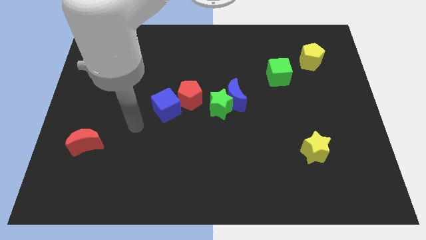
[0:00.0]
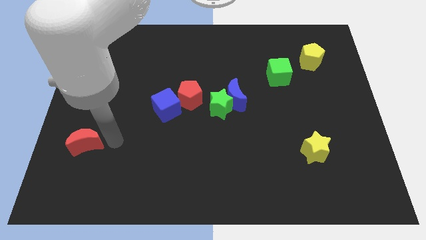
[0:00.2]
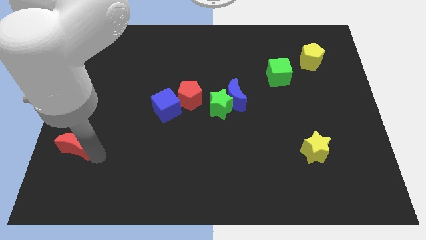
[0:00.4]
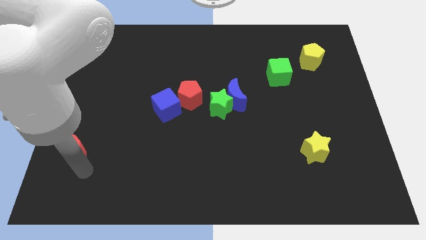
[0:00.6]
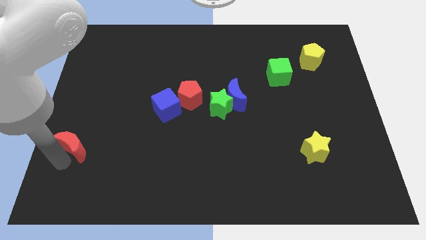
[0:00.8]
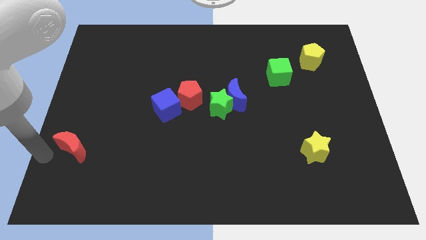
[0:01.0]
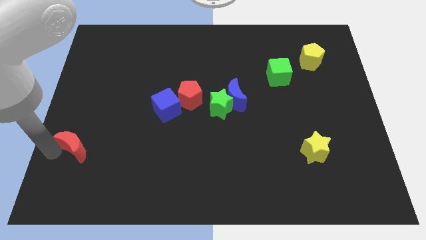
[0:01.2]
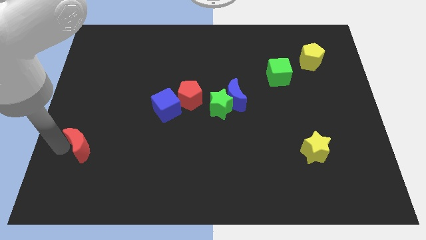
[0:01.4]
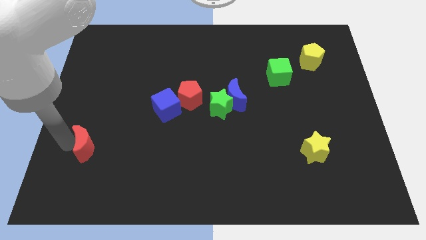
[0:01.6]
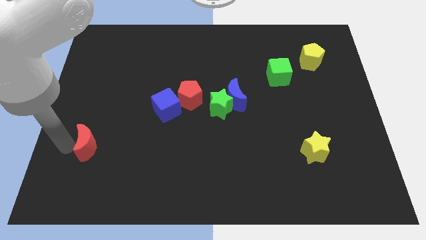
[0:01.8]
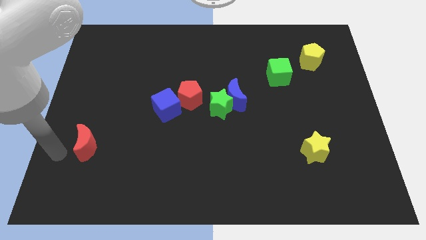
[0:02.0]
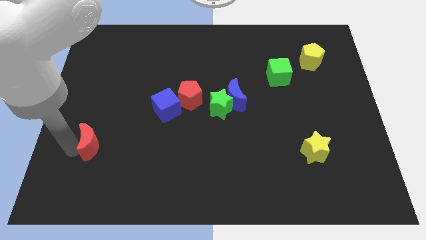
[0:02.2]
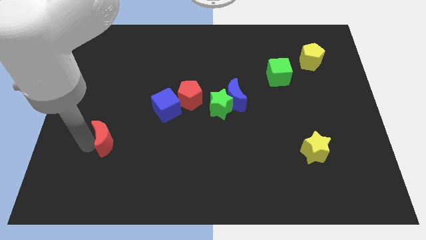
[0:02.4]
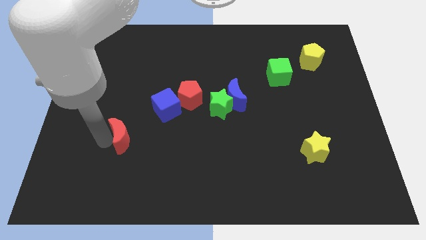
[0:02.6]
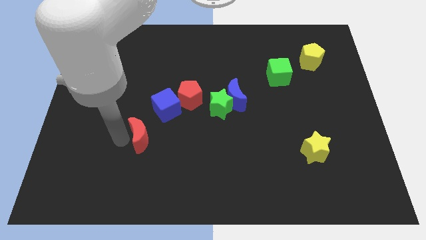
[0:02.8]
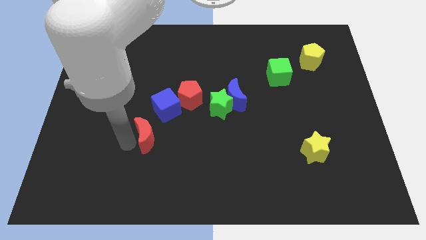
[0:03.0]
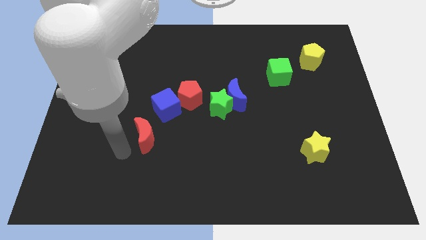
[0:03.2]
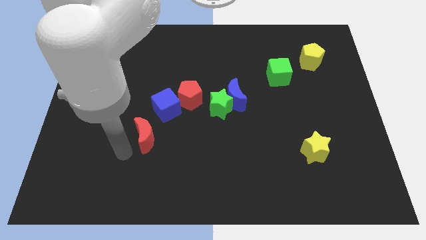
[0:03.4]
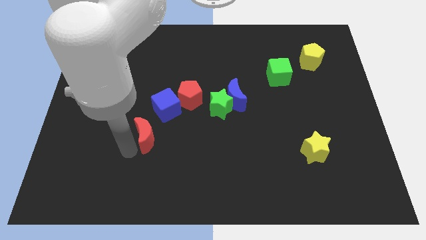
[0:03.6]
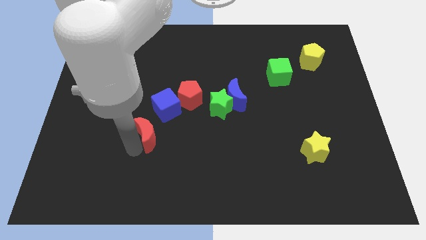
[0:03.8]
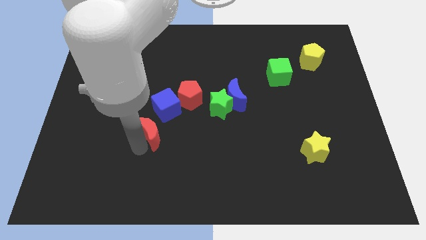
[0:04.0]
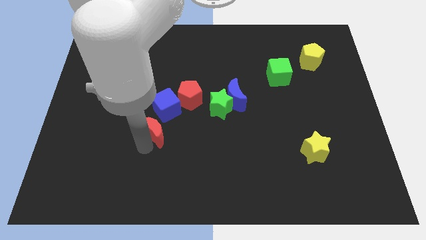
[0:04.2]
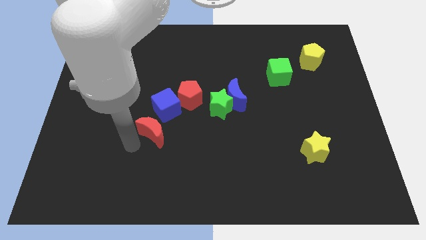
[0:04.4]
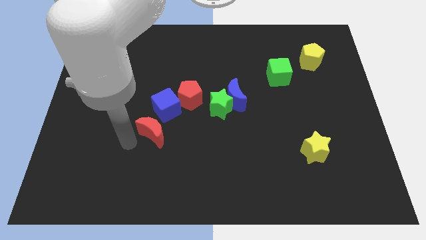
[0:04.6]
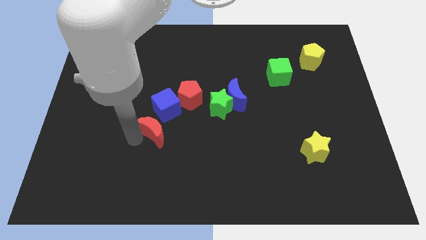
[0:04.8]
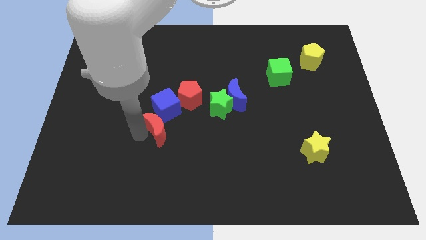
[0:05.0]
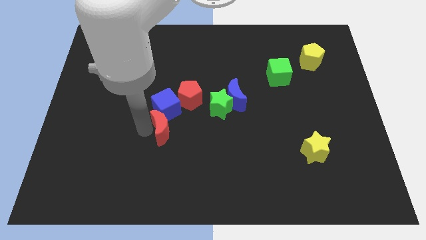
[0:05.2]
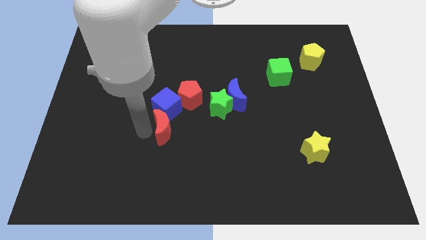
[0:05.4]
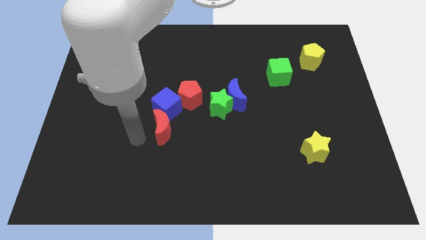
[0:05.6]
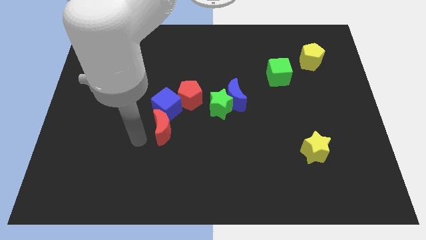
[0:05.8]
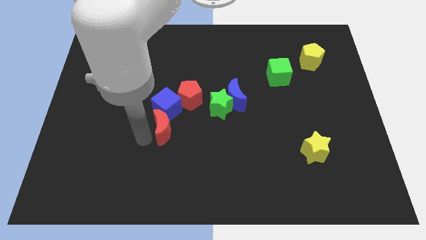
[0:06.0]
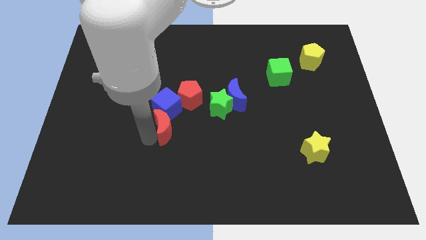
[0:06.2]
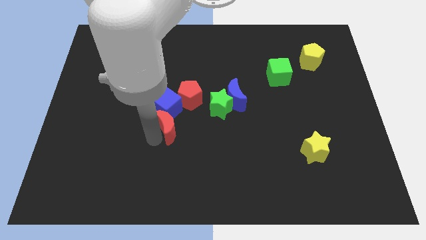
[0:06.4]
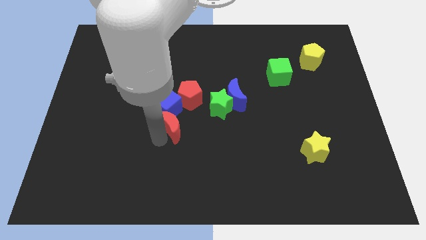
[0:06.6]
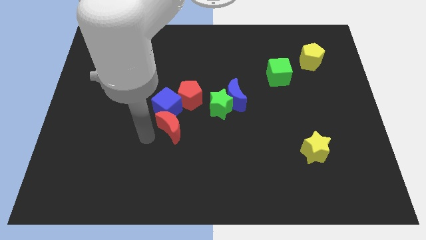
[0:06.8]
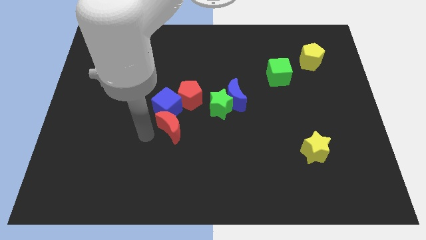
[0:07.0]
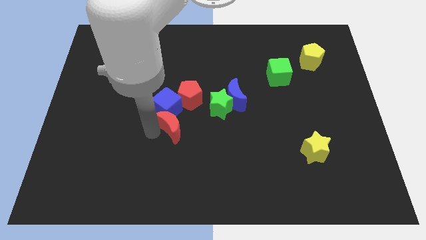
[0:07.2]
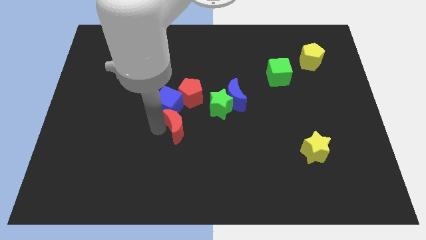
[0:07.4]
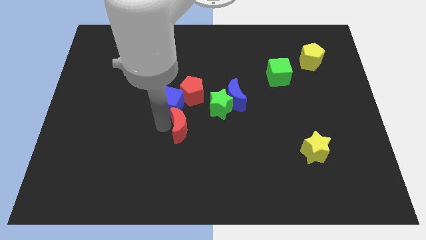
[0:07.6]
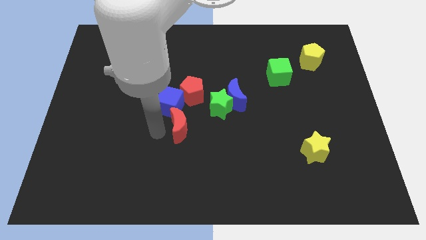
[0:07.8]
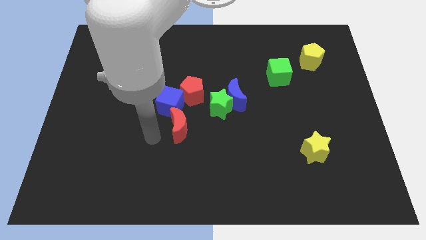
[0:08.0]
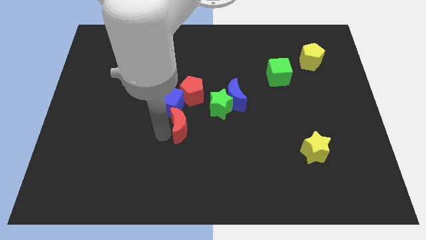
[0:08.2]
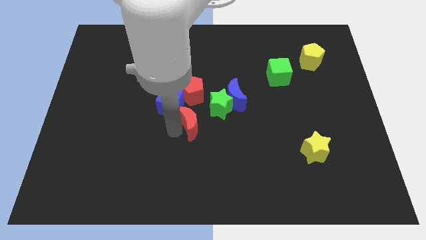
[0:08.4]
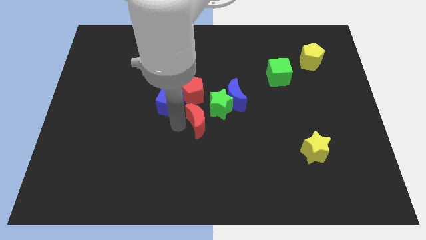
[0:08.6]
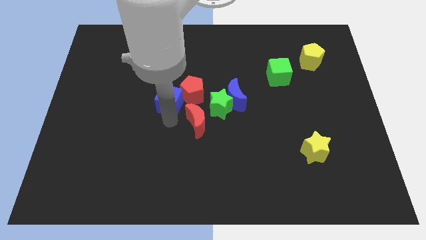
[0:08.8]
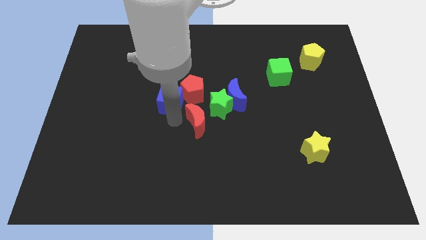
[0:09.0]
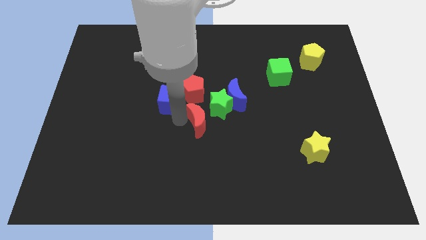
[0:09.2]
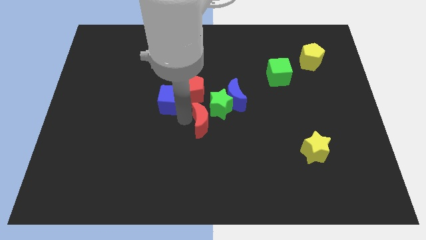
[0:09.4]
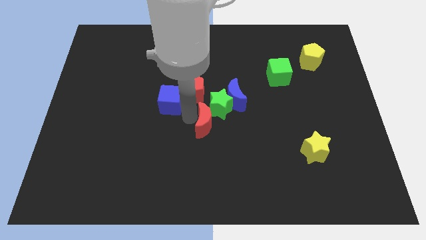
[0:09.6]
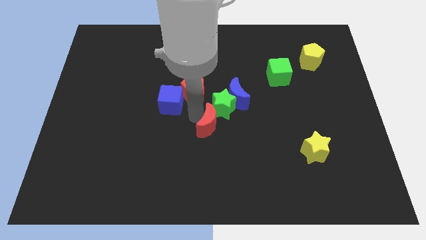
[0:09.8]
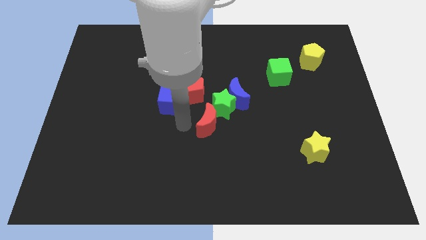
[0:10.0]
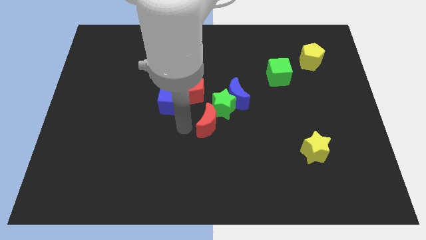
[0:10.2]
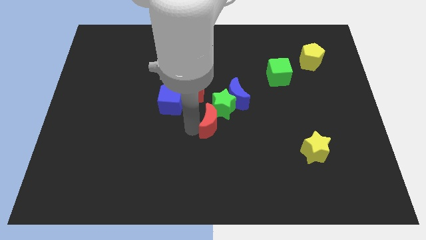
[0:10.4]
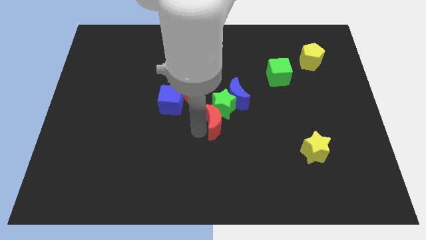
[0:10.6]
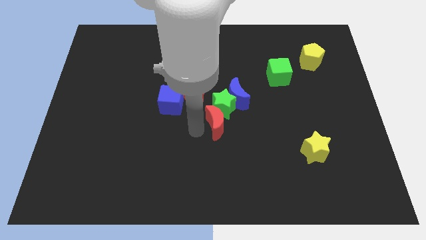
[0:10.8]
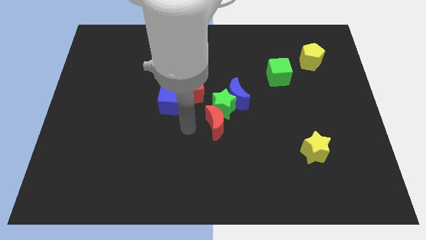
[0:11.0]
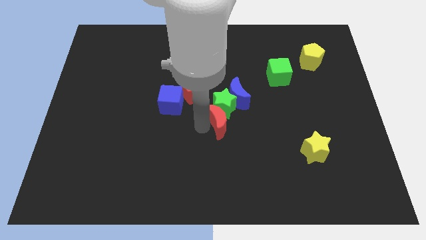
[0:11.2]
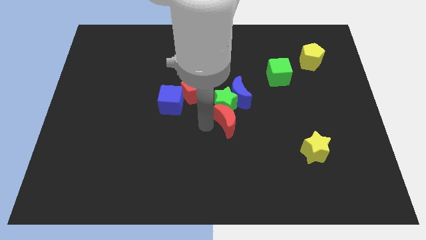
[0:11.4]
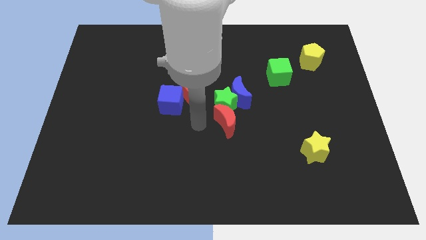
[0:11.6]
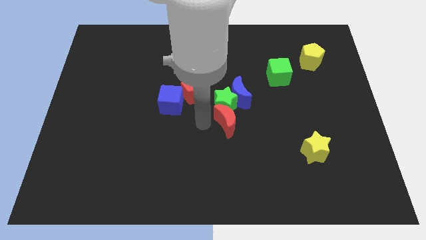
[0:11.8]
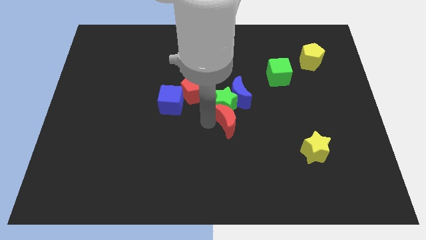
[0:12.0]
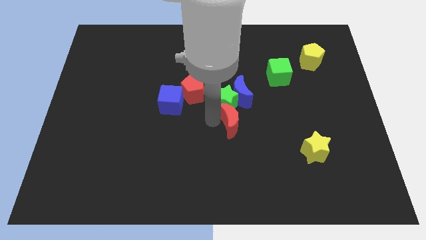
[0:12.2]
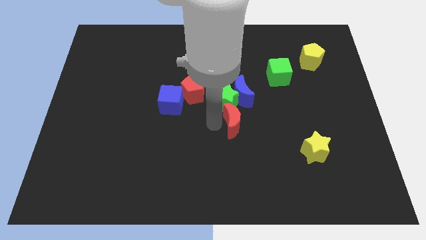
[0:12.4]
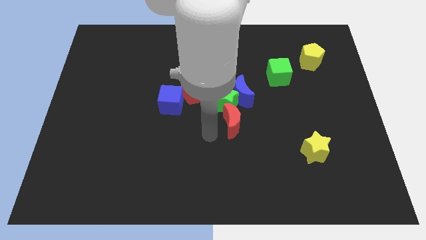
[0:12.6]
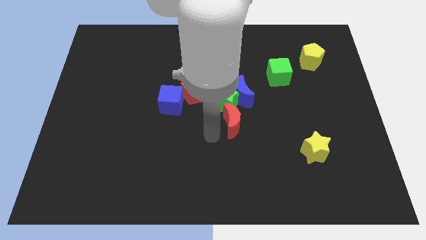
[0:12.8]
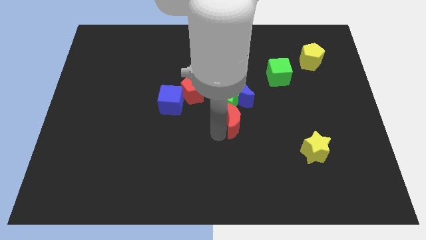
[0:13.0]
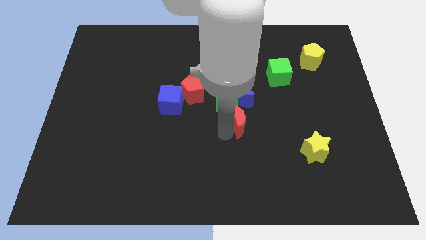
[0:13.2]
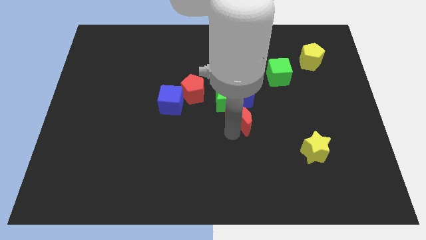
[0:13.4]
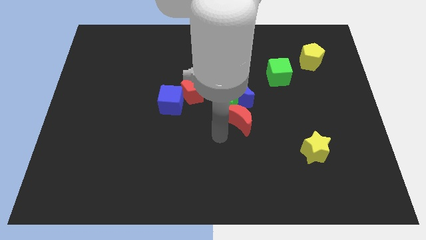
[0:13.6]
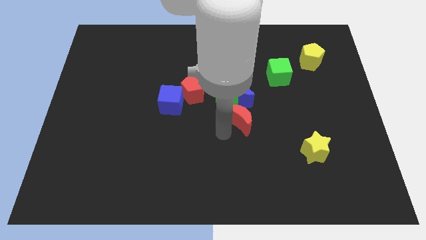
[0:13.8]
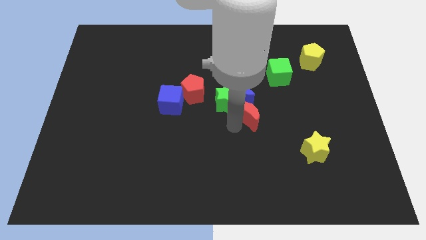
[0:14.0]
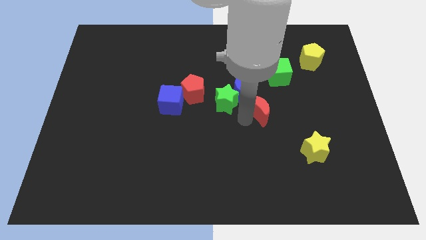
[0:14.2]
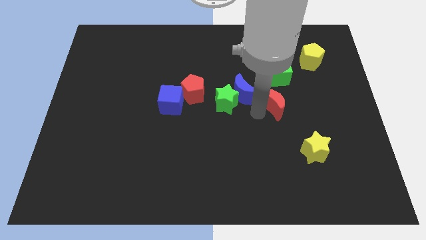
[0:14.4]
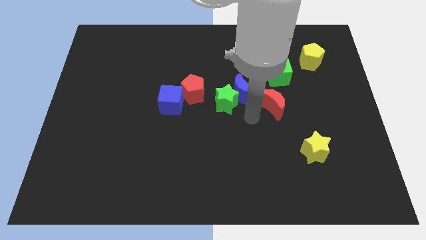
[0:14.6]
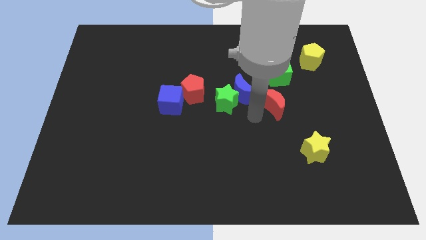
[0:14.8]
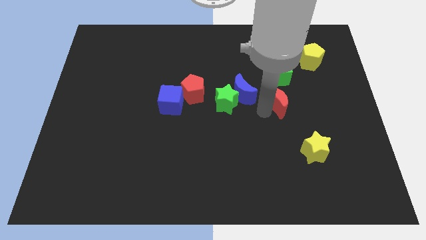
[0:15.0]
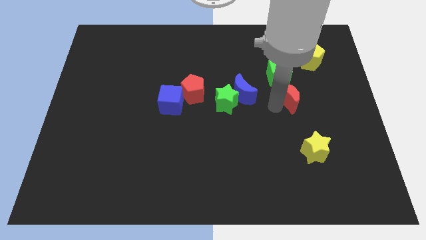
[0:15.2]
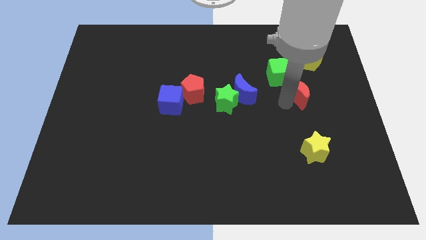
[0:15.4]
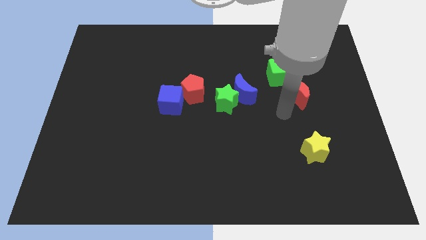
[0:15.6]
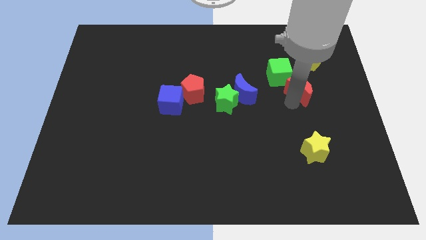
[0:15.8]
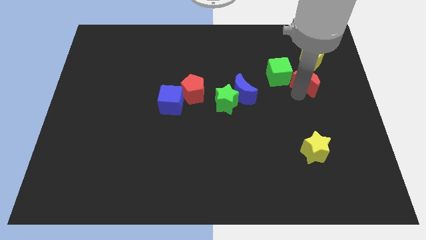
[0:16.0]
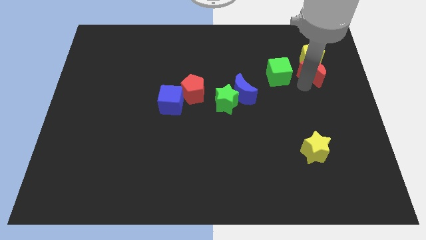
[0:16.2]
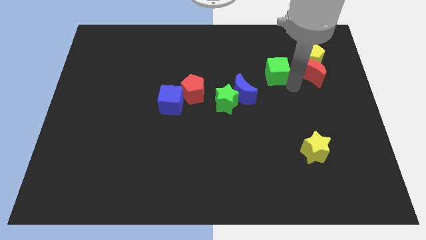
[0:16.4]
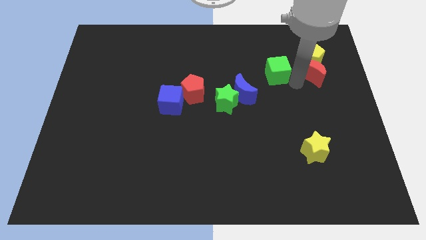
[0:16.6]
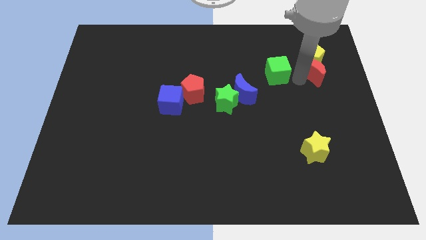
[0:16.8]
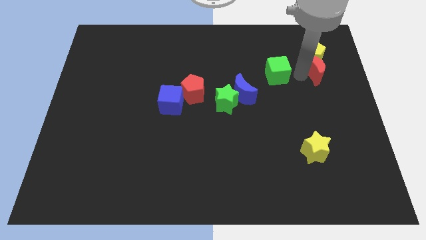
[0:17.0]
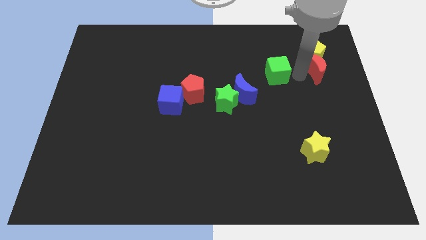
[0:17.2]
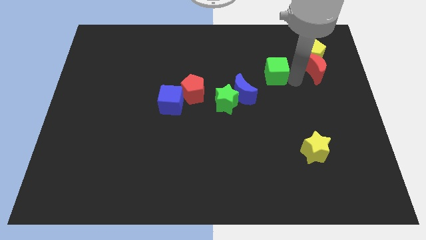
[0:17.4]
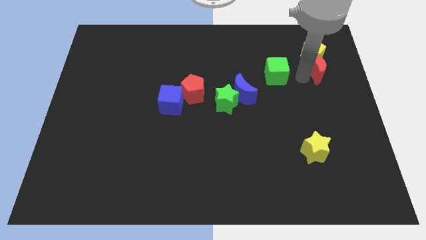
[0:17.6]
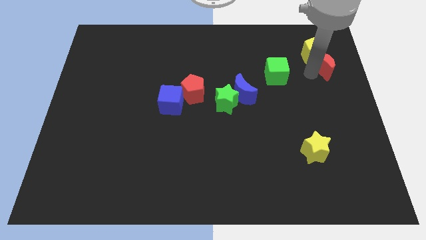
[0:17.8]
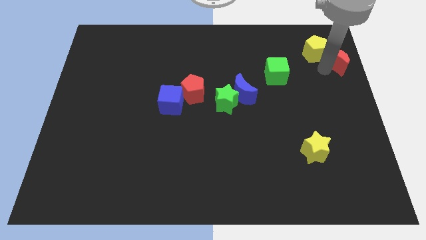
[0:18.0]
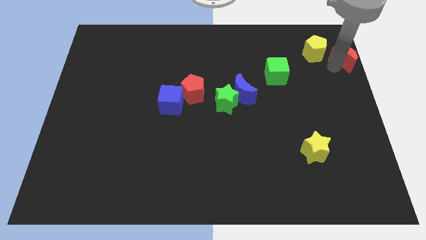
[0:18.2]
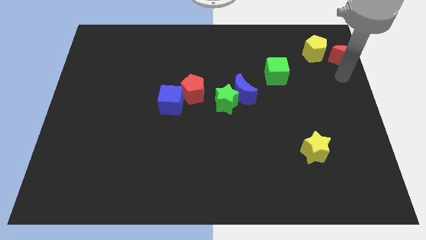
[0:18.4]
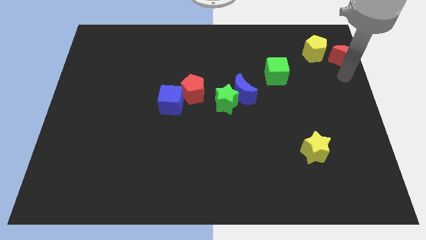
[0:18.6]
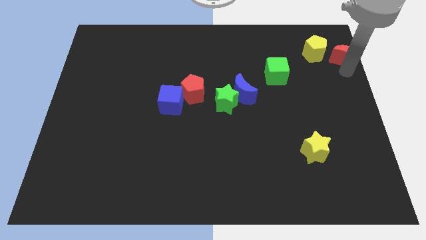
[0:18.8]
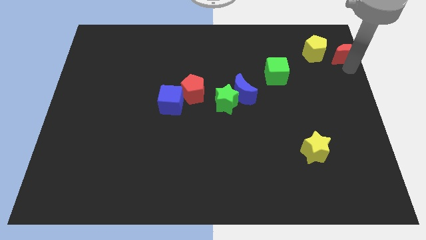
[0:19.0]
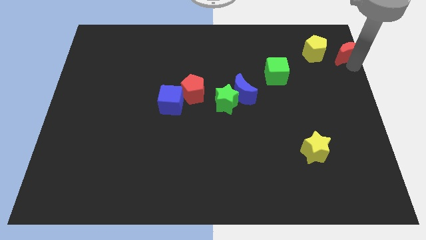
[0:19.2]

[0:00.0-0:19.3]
put the red moon to the upper right corner
